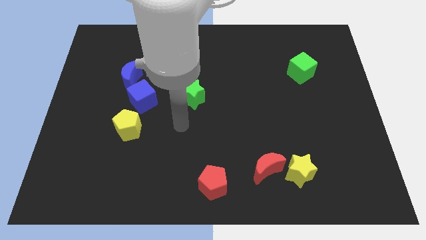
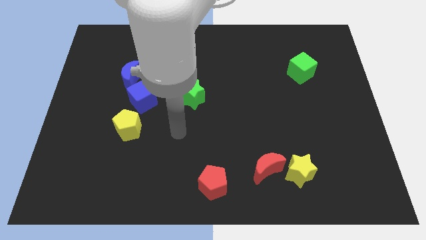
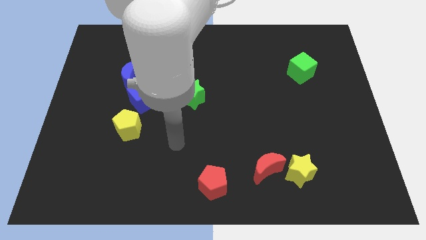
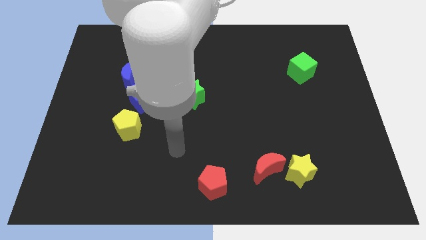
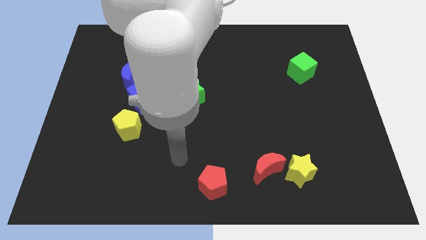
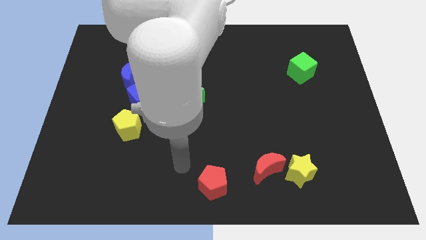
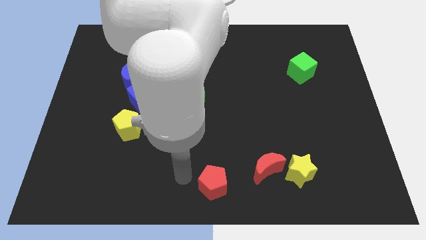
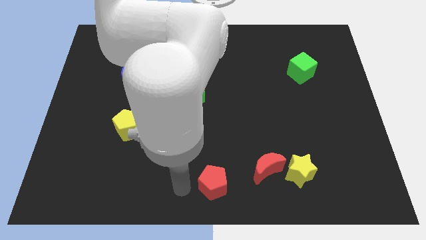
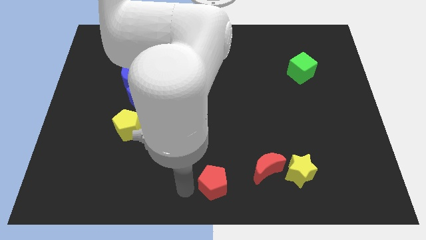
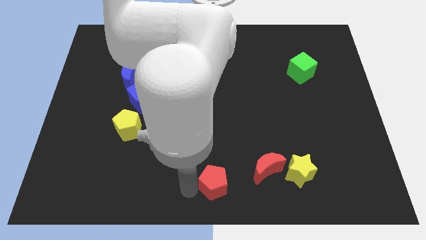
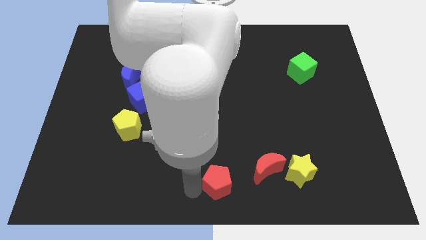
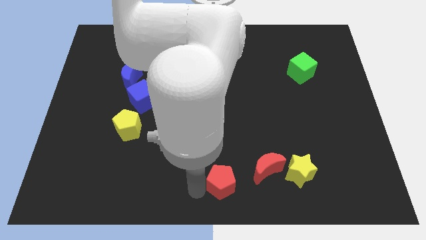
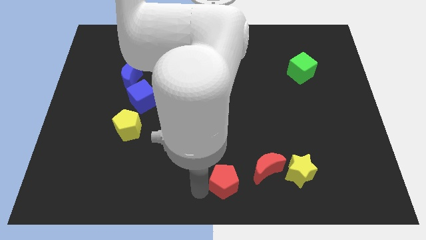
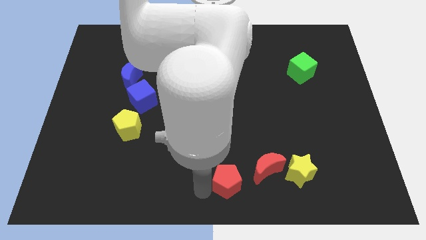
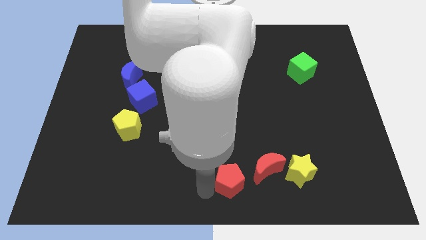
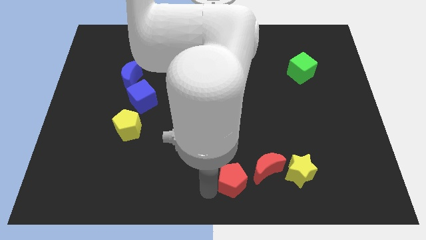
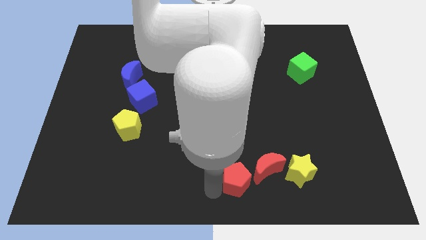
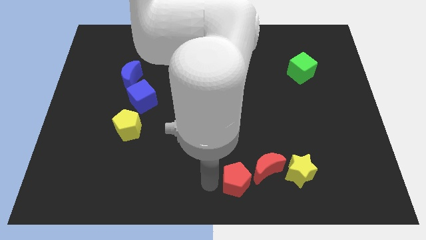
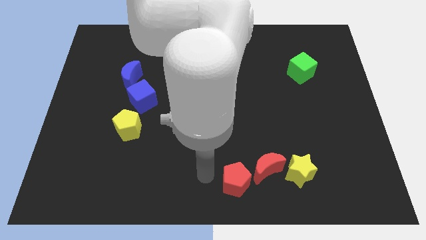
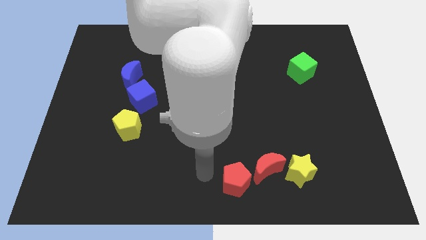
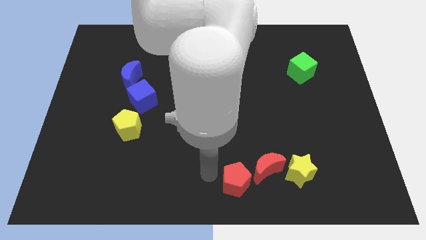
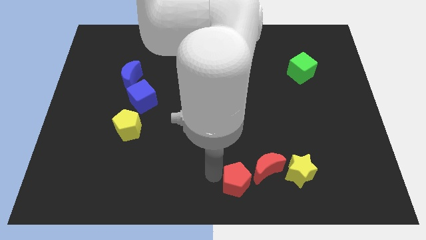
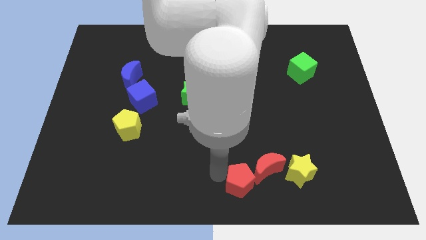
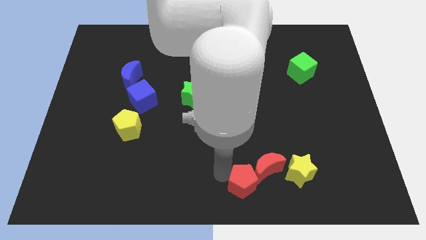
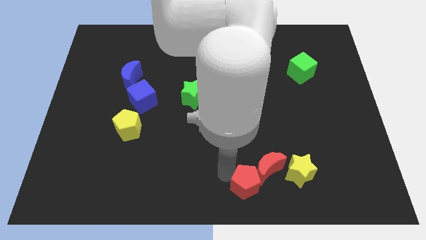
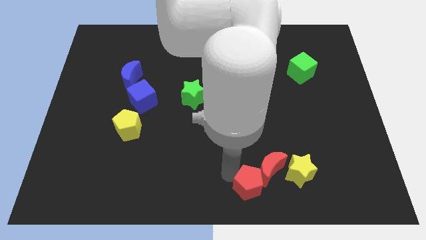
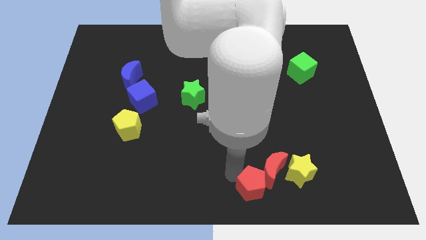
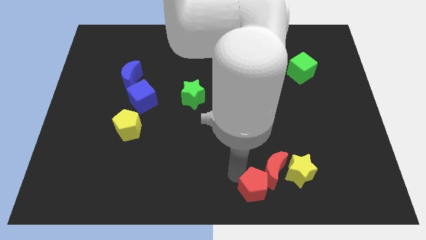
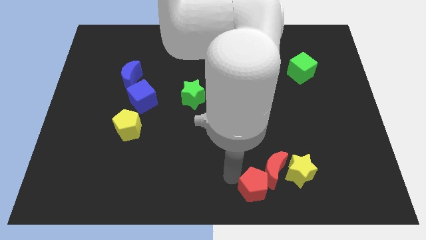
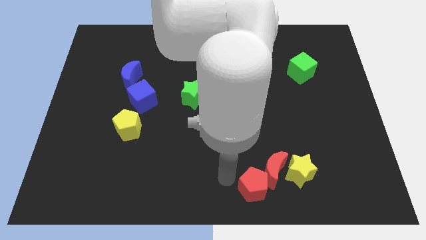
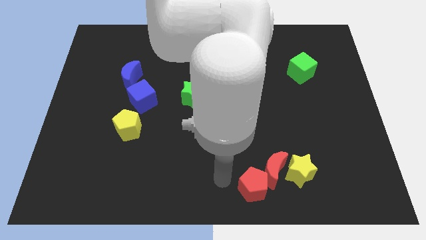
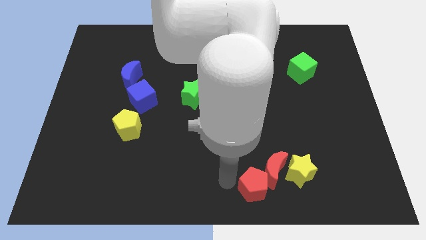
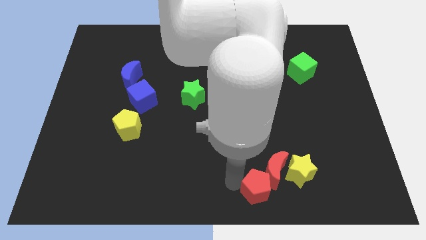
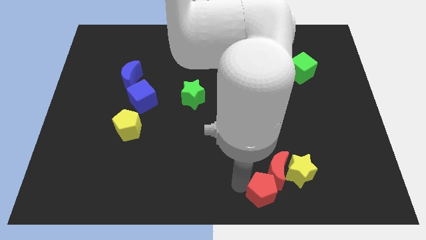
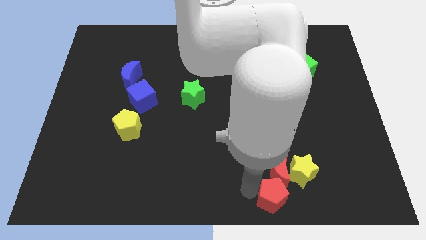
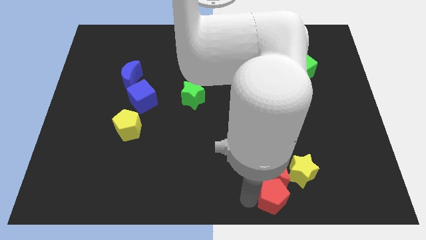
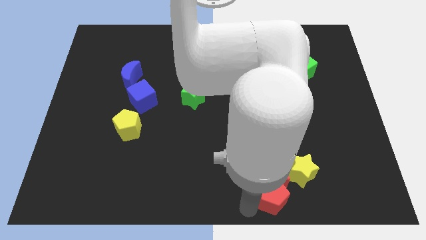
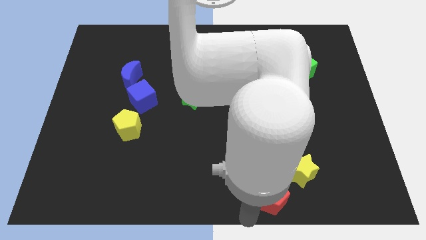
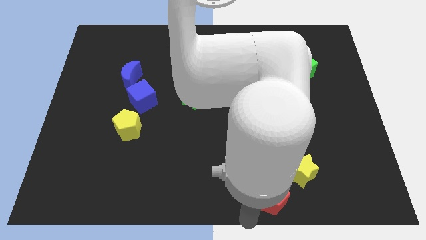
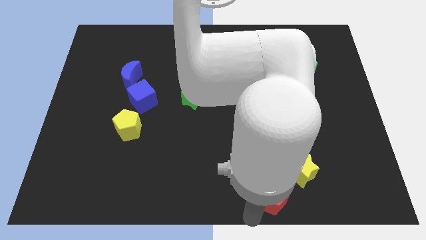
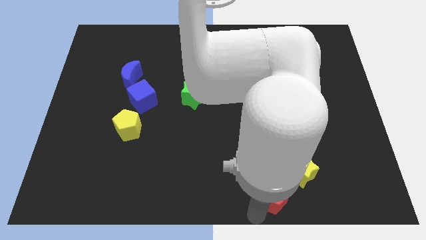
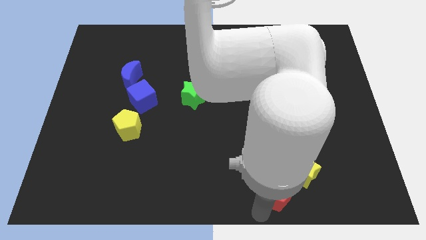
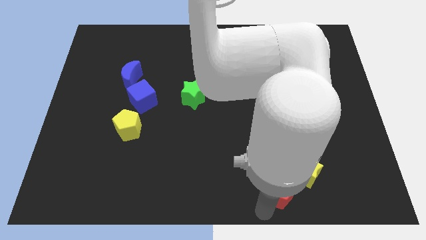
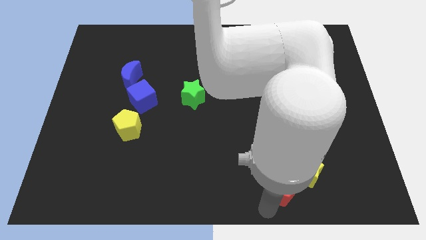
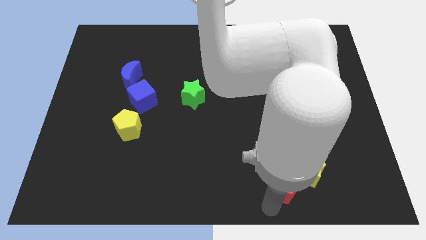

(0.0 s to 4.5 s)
move the red pentagon next to the yellow star

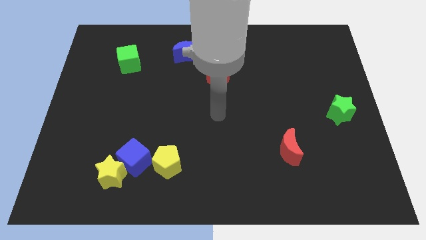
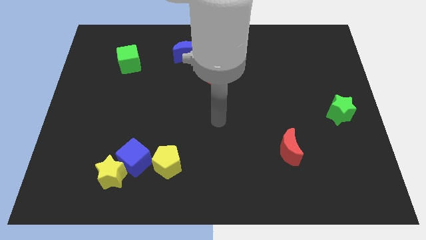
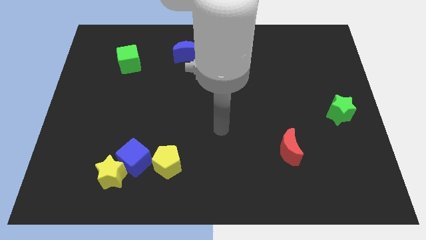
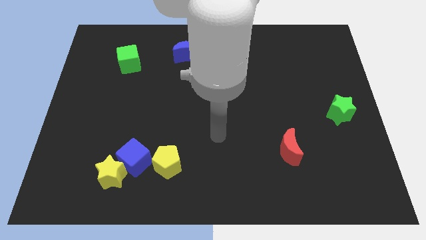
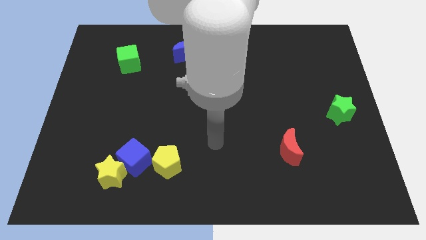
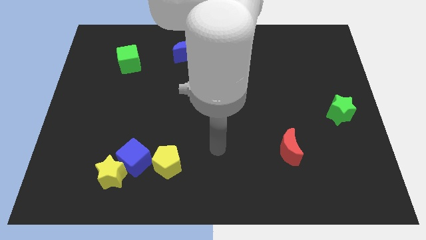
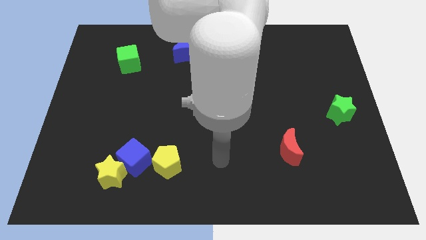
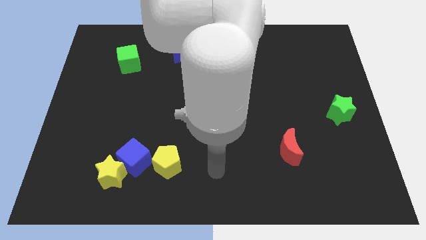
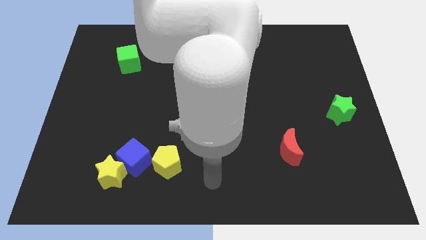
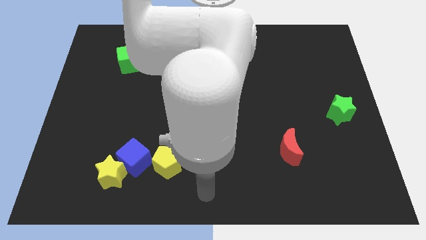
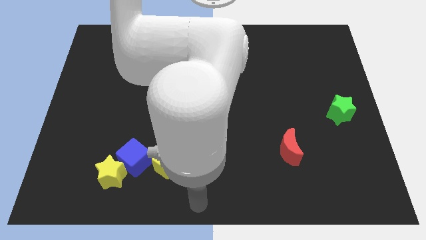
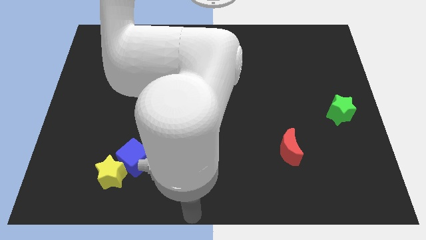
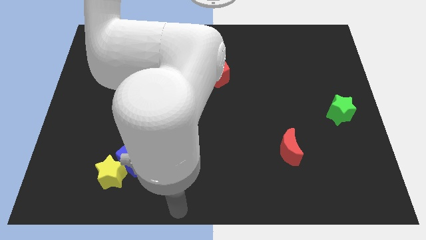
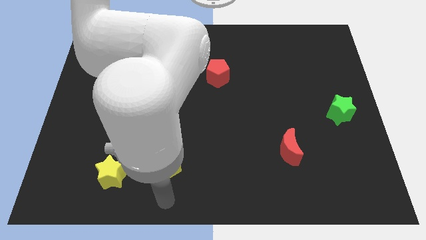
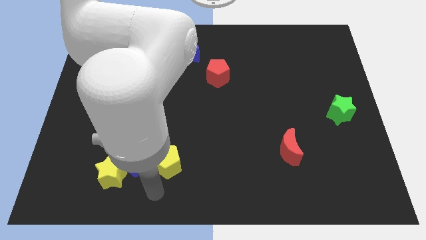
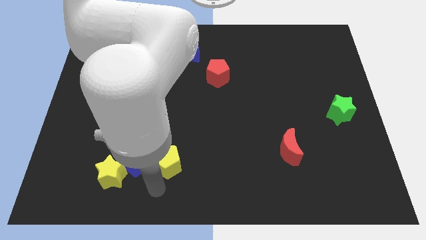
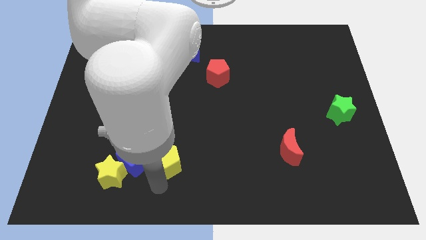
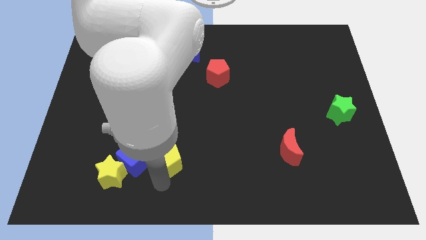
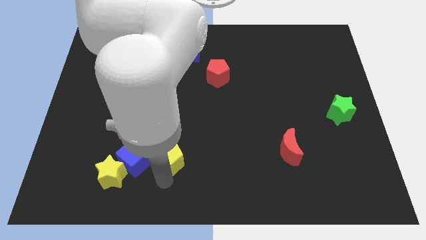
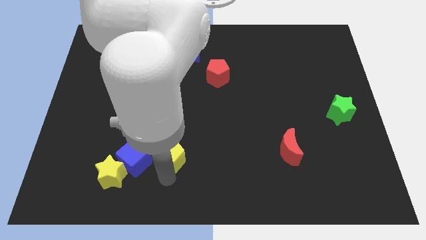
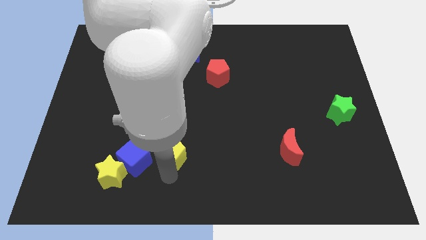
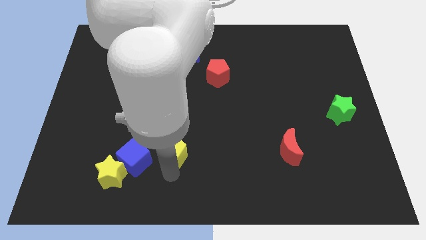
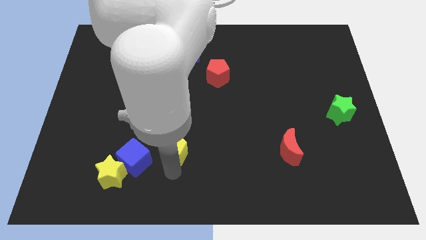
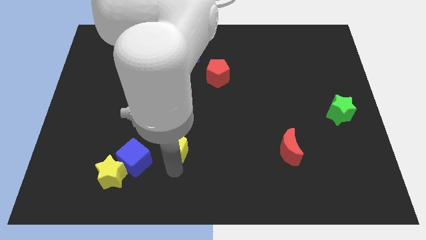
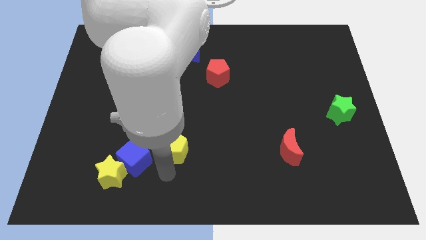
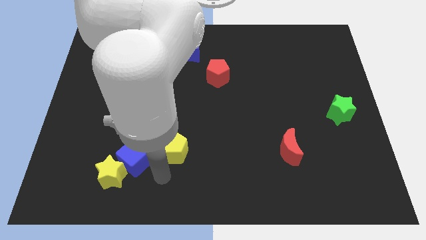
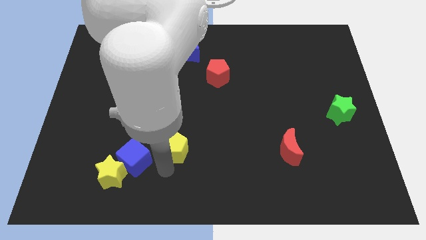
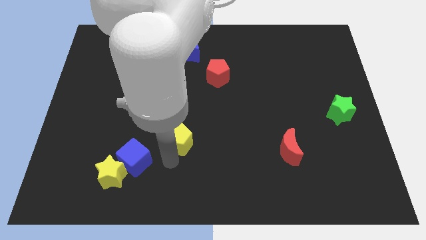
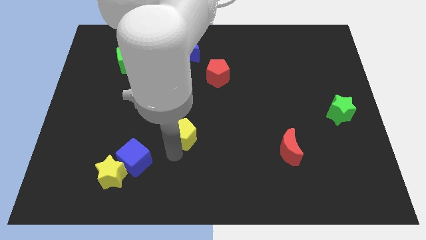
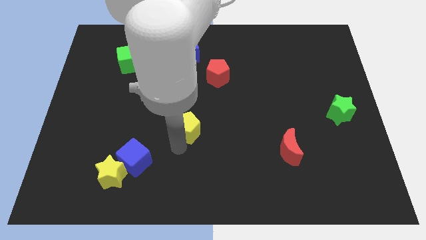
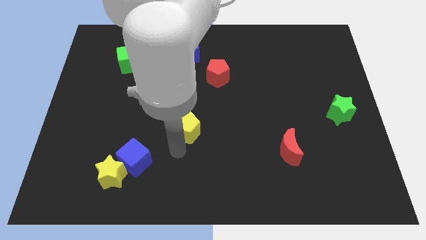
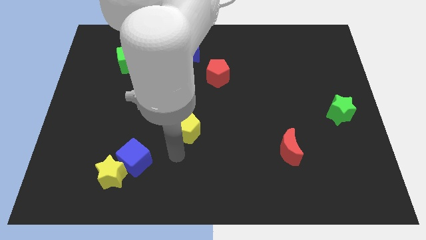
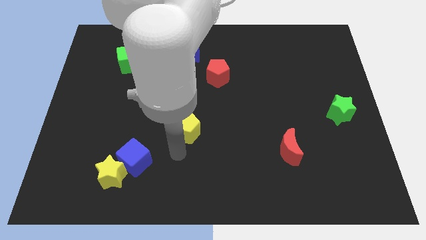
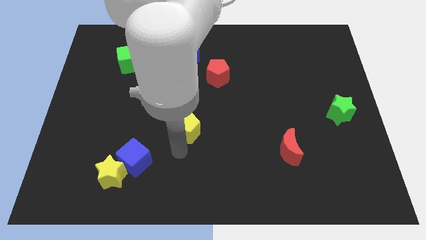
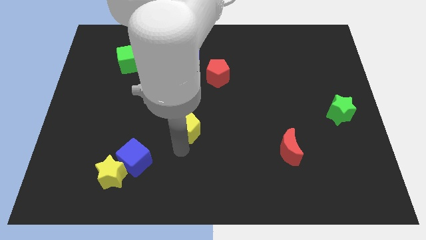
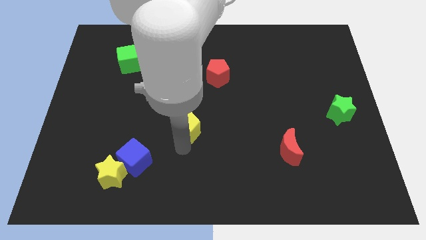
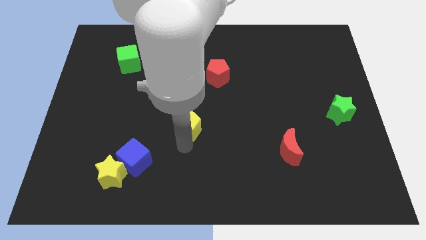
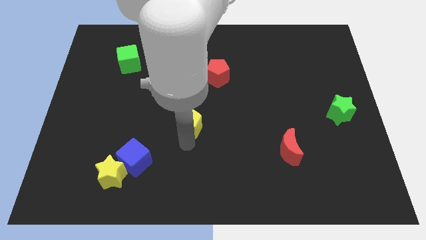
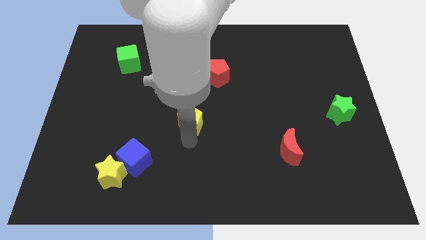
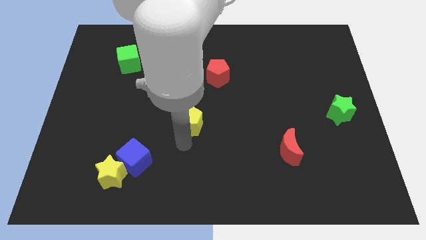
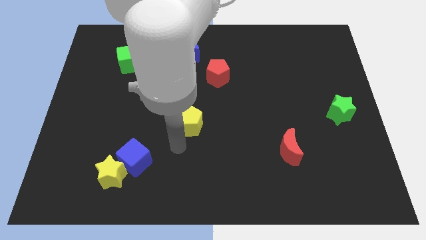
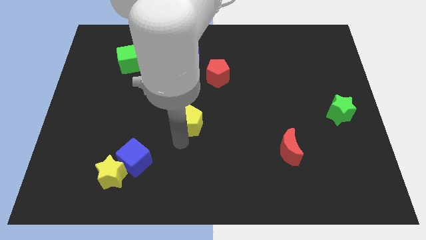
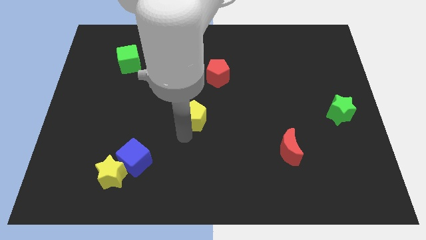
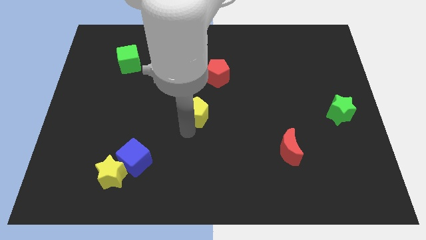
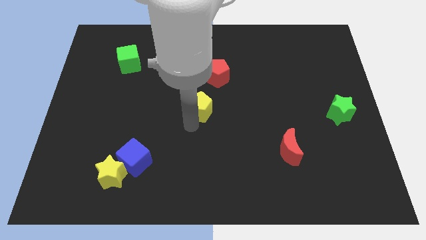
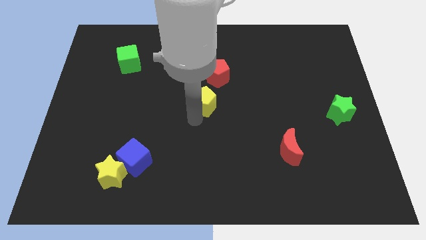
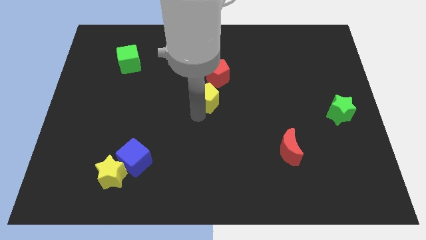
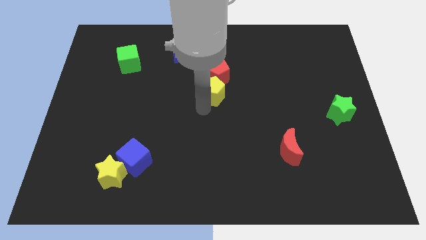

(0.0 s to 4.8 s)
slide the yellow pentagon next to the red pentagon
